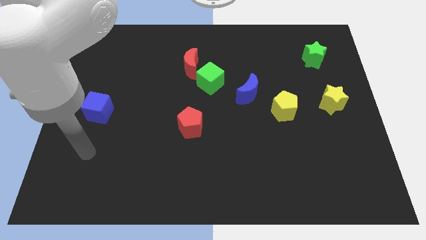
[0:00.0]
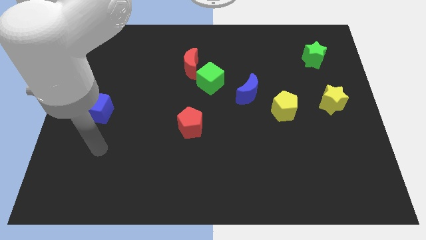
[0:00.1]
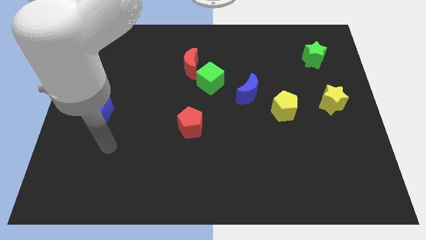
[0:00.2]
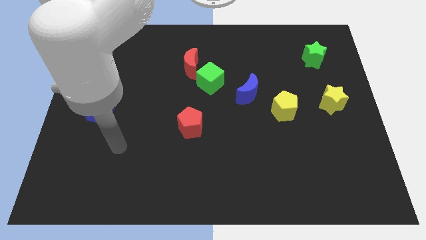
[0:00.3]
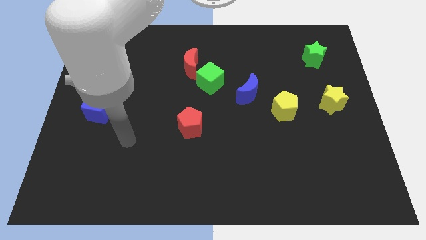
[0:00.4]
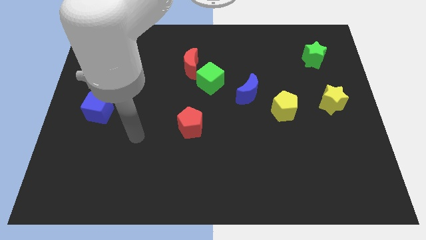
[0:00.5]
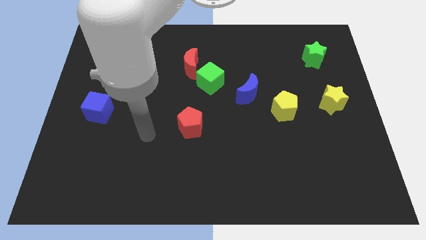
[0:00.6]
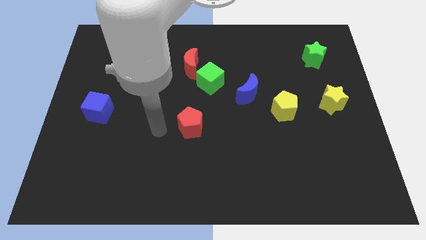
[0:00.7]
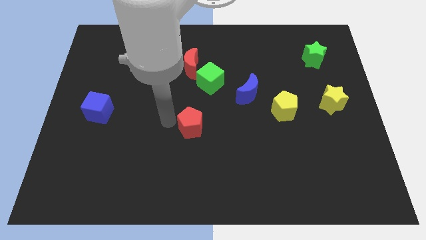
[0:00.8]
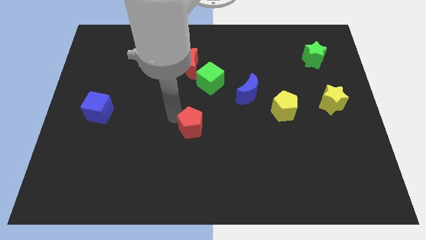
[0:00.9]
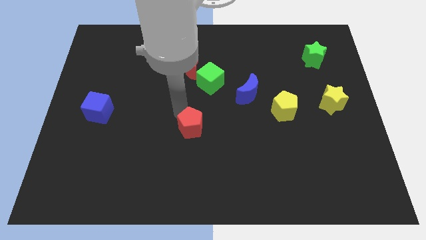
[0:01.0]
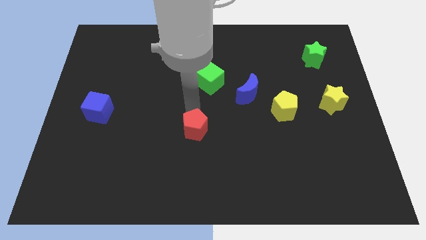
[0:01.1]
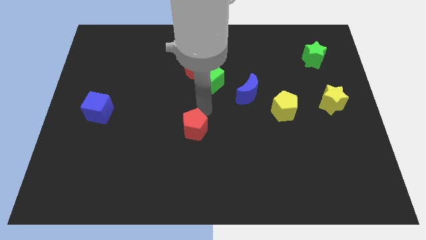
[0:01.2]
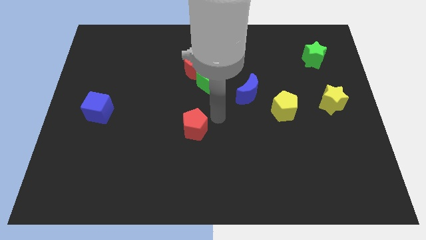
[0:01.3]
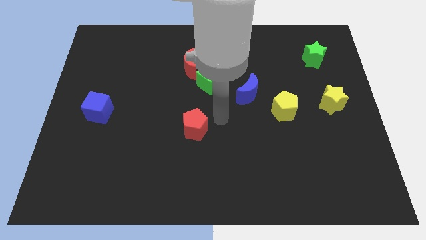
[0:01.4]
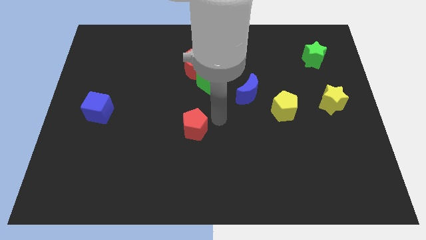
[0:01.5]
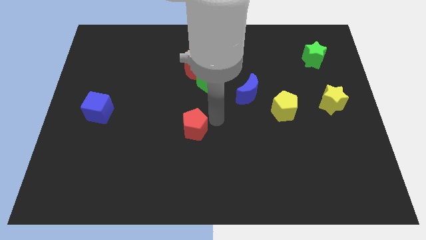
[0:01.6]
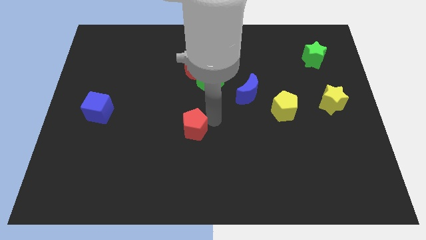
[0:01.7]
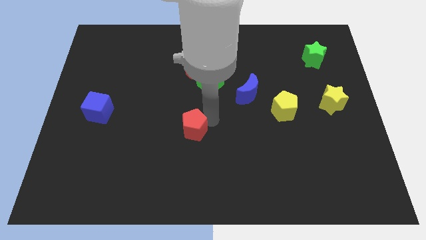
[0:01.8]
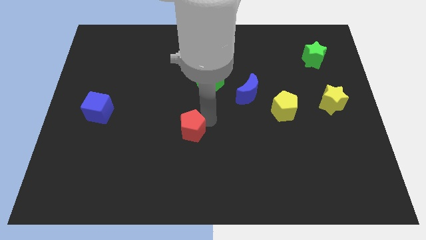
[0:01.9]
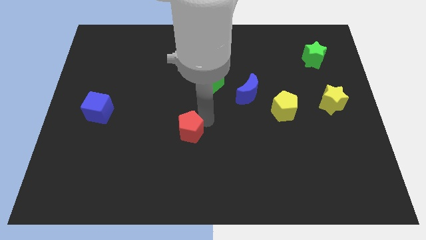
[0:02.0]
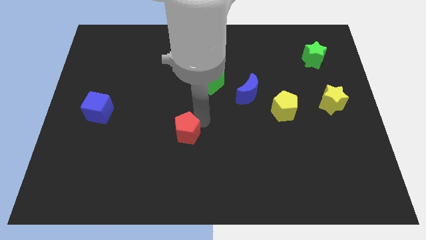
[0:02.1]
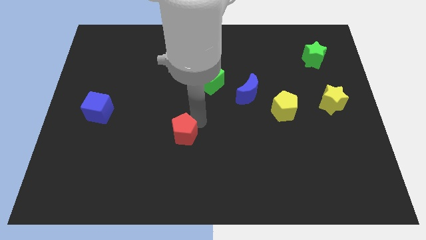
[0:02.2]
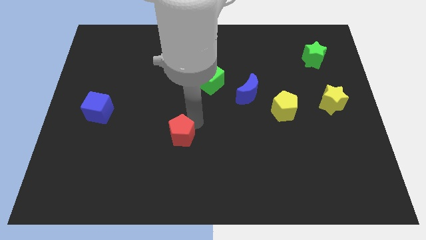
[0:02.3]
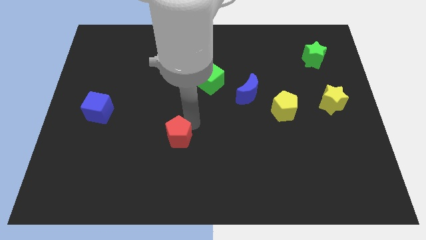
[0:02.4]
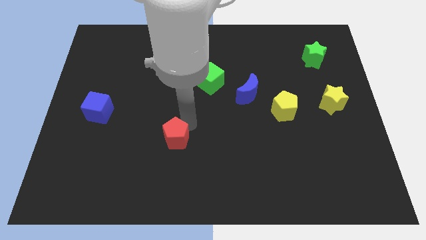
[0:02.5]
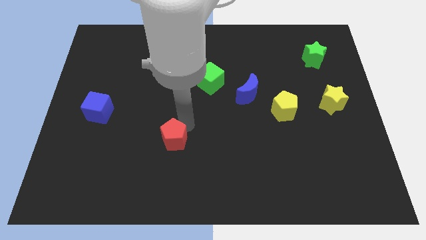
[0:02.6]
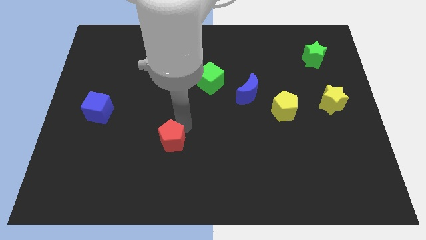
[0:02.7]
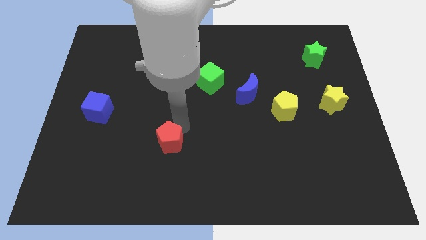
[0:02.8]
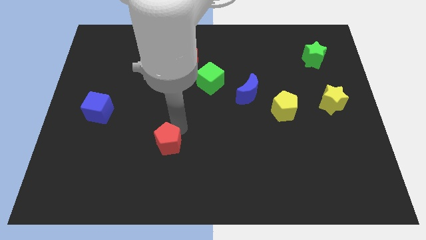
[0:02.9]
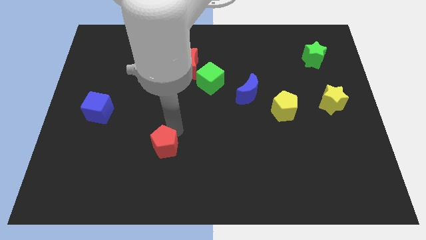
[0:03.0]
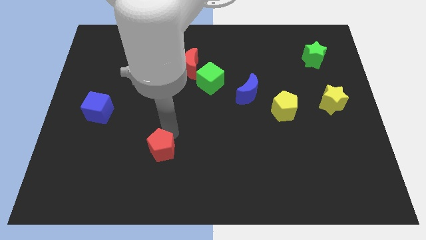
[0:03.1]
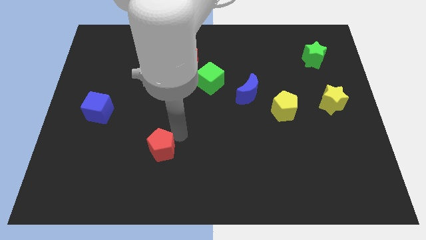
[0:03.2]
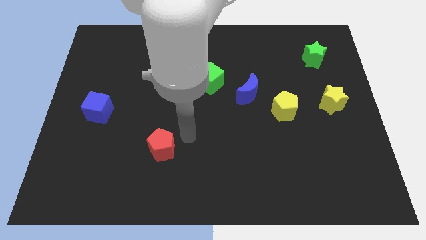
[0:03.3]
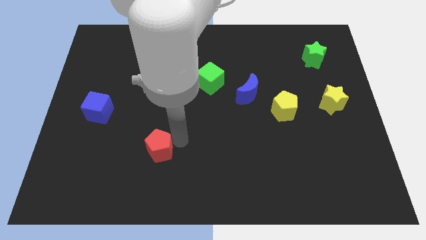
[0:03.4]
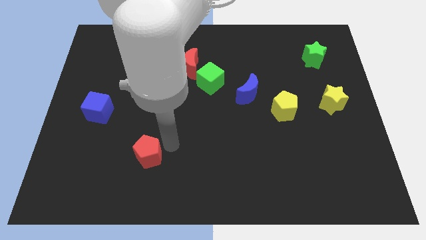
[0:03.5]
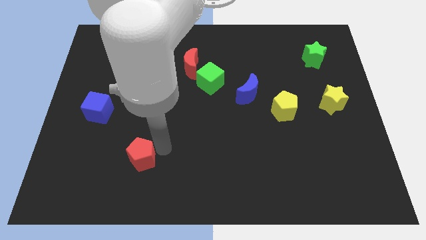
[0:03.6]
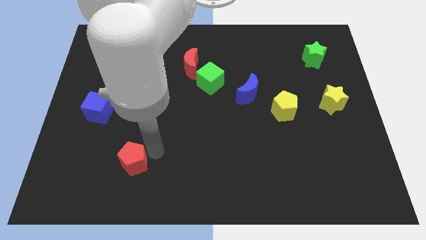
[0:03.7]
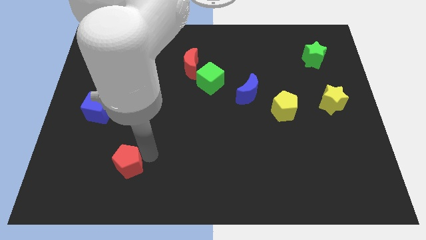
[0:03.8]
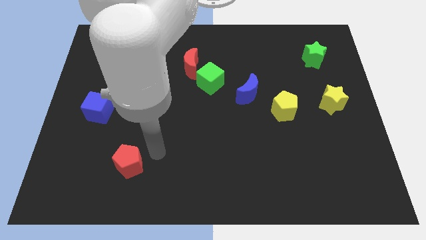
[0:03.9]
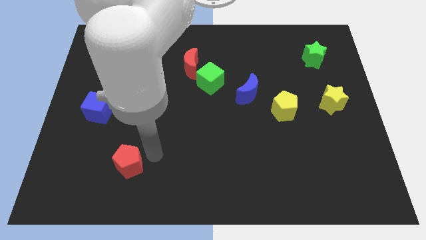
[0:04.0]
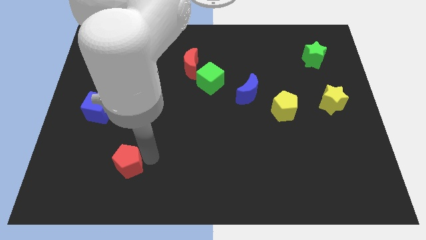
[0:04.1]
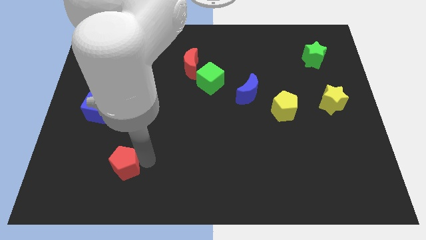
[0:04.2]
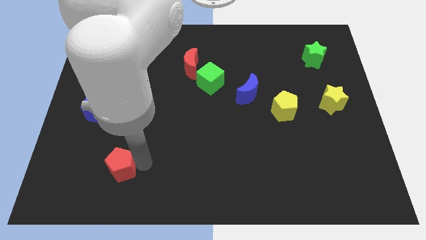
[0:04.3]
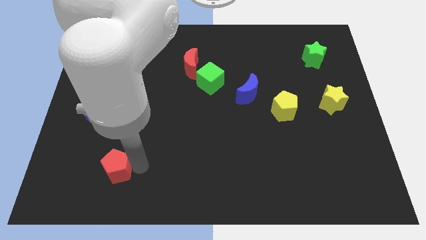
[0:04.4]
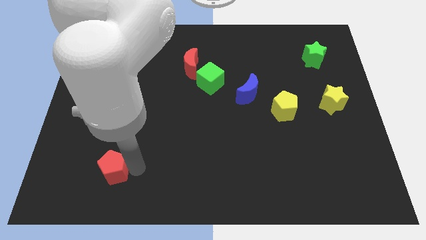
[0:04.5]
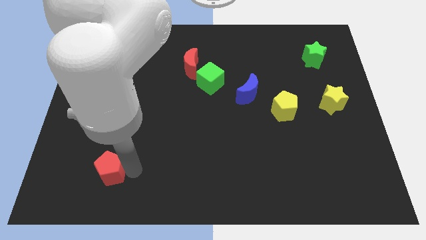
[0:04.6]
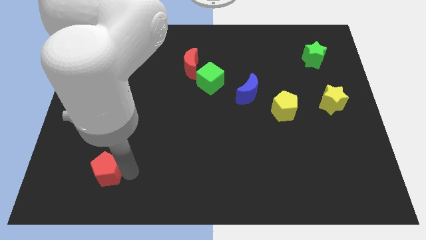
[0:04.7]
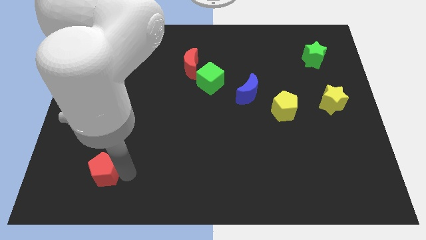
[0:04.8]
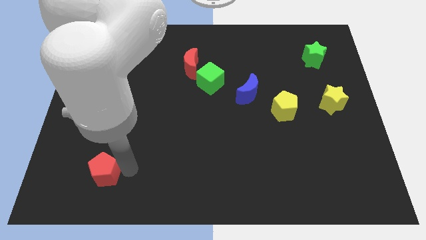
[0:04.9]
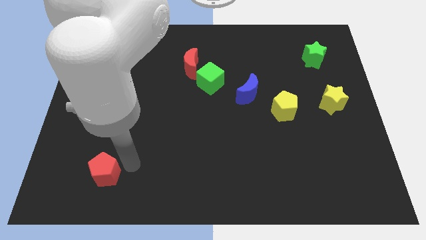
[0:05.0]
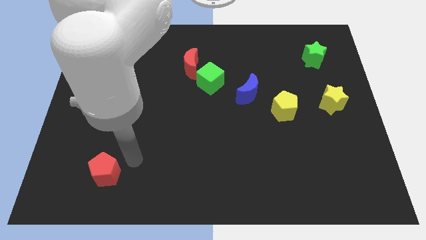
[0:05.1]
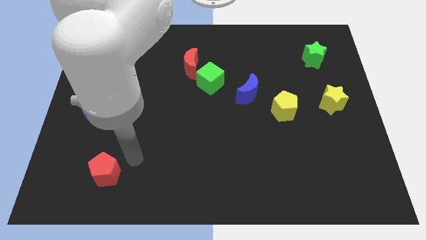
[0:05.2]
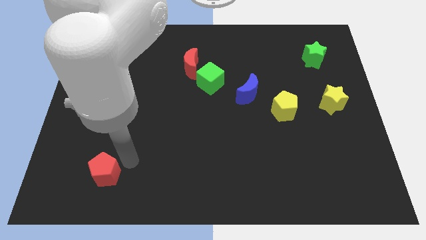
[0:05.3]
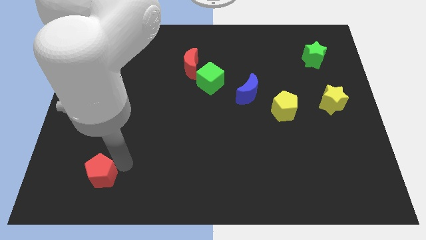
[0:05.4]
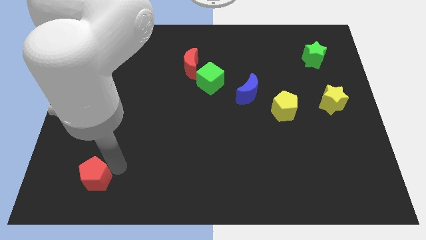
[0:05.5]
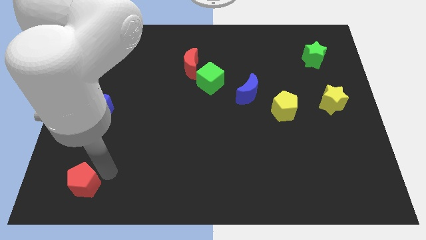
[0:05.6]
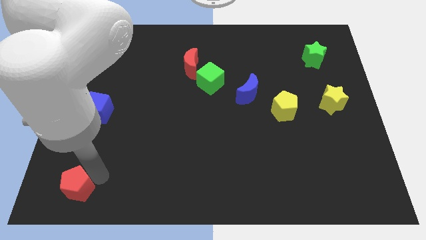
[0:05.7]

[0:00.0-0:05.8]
slide the red pentagon to the bottom left of the board
